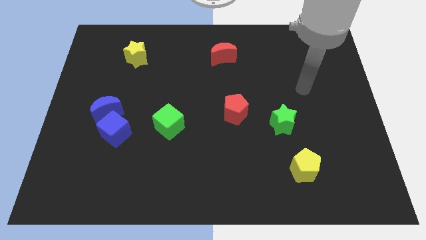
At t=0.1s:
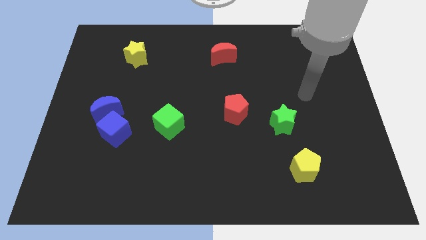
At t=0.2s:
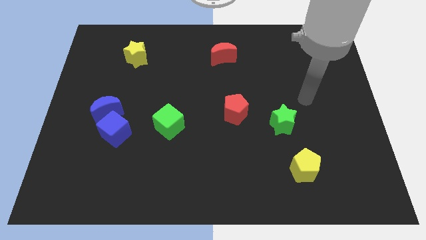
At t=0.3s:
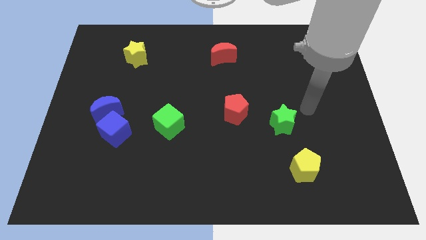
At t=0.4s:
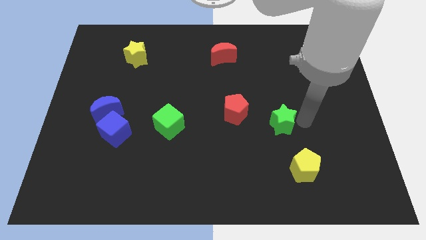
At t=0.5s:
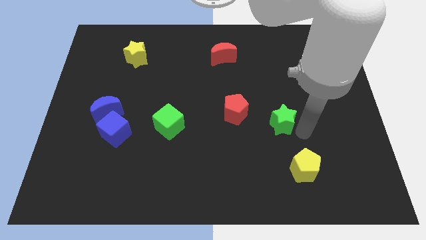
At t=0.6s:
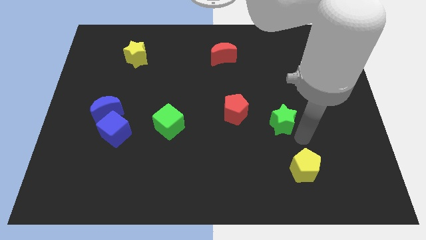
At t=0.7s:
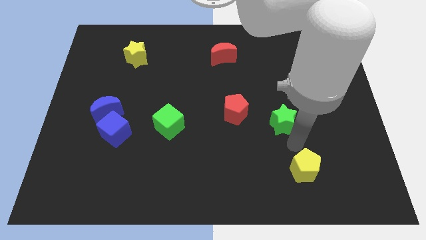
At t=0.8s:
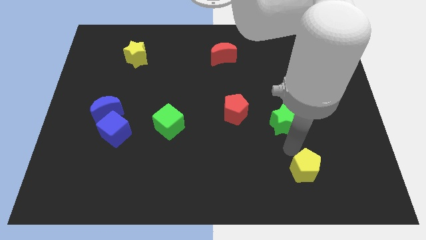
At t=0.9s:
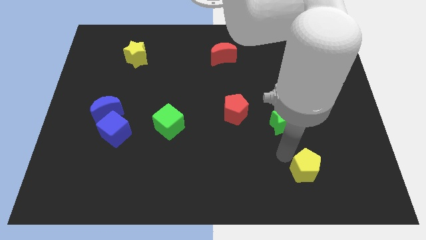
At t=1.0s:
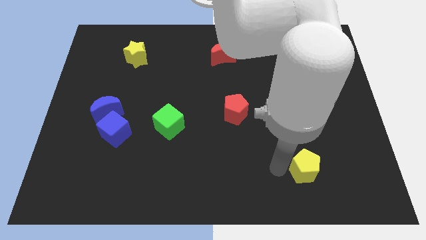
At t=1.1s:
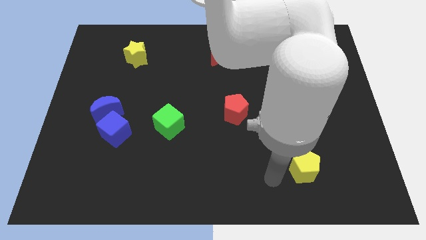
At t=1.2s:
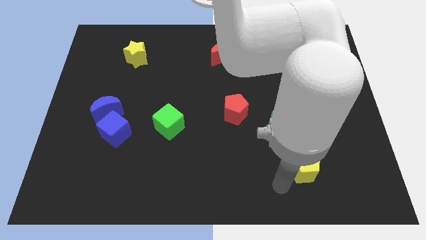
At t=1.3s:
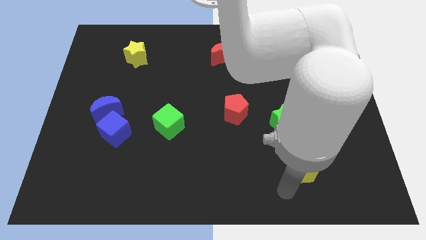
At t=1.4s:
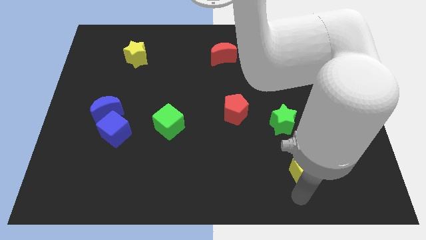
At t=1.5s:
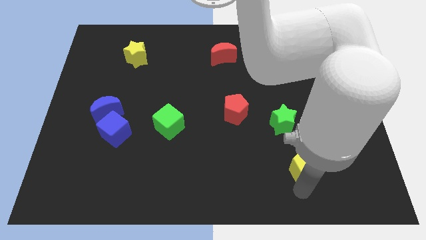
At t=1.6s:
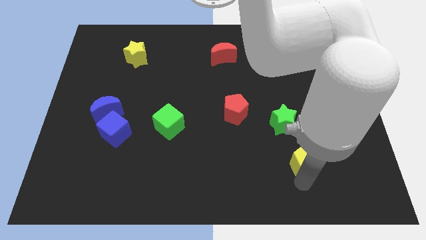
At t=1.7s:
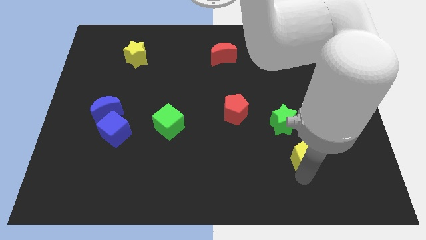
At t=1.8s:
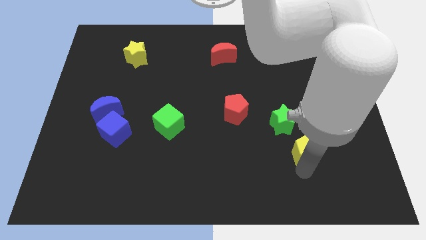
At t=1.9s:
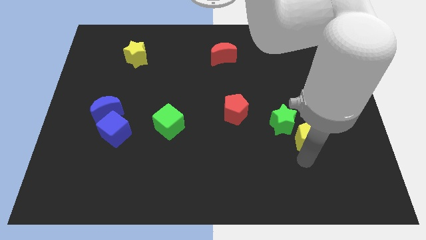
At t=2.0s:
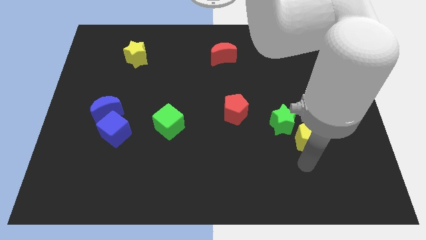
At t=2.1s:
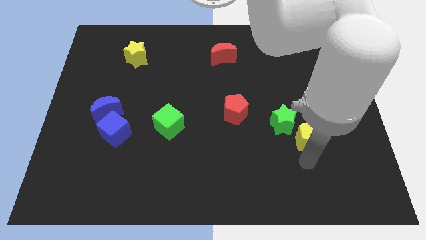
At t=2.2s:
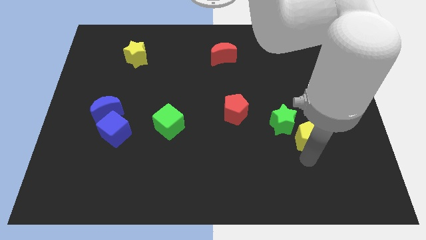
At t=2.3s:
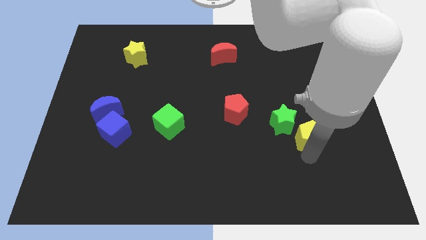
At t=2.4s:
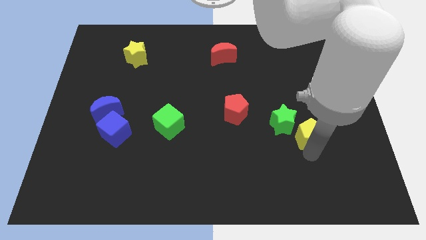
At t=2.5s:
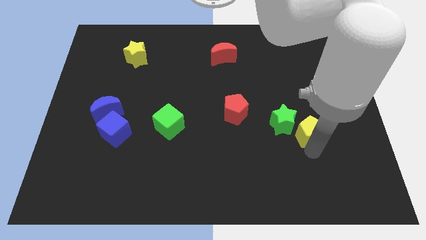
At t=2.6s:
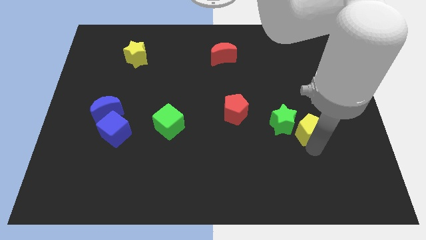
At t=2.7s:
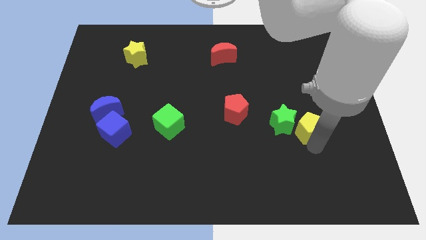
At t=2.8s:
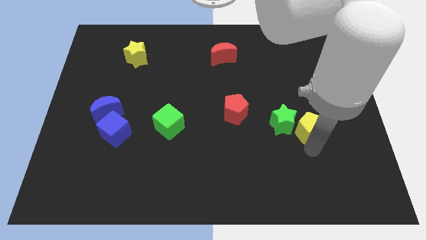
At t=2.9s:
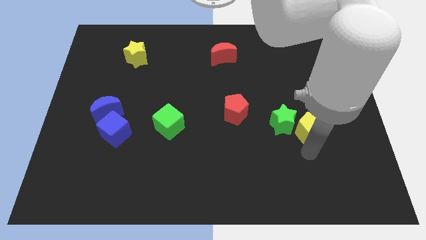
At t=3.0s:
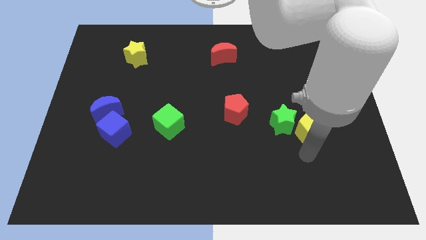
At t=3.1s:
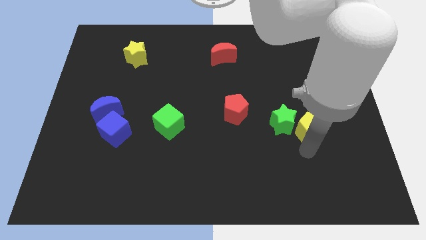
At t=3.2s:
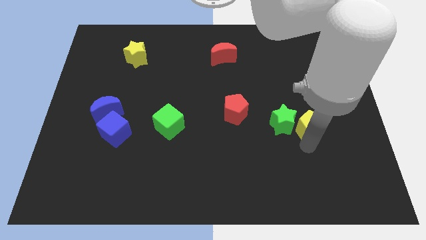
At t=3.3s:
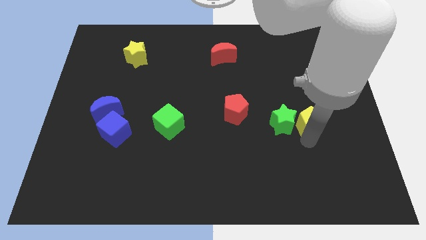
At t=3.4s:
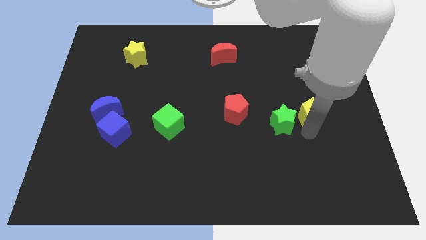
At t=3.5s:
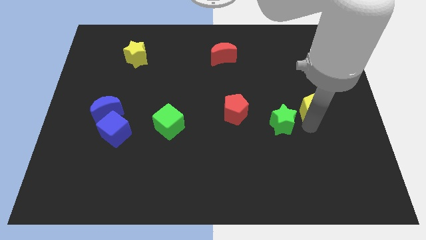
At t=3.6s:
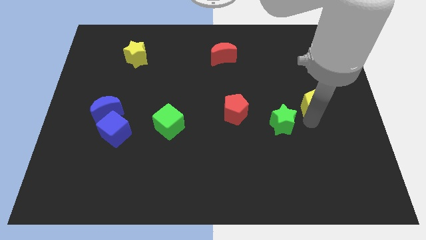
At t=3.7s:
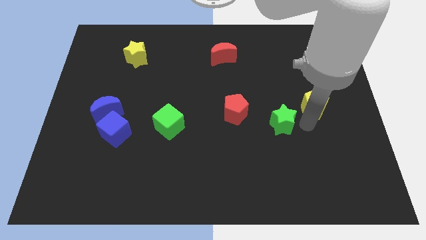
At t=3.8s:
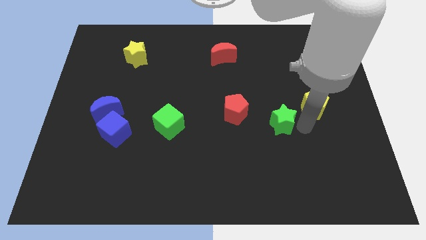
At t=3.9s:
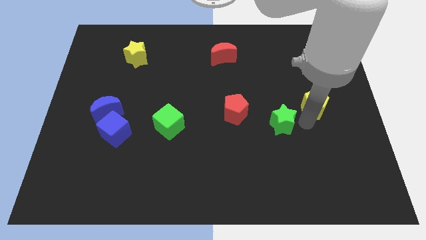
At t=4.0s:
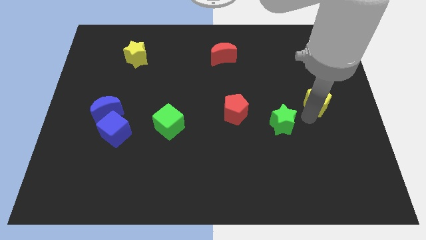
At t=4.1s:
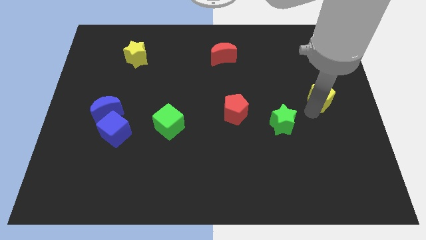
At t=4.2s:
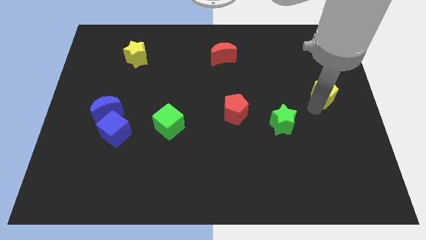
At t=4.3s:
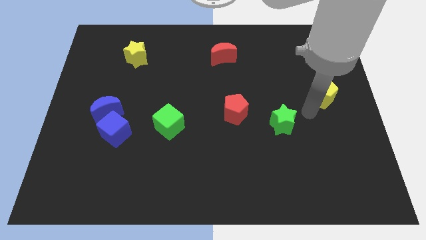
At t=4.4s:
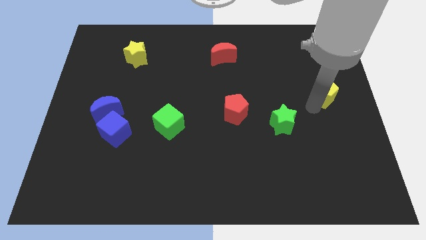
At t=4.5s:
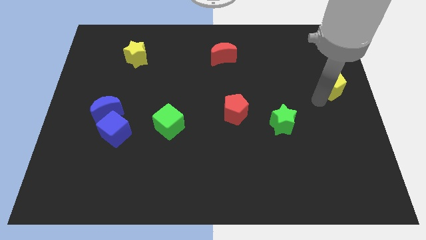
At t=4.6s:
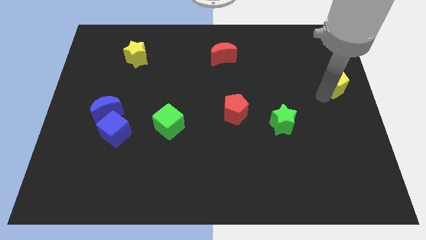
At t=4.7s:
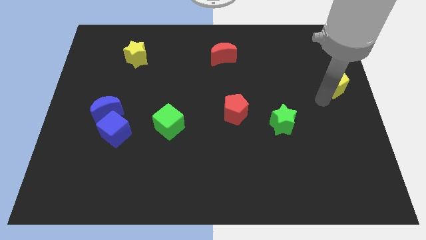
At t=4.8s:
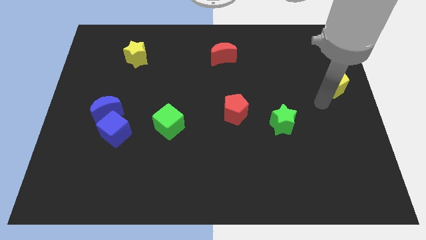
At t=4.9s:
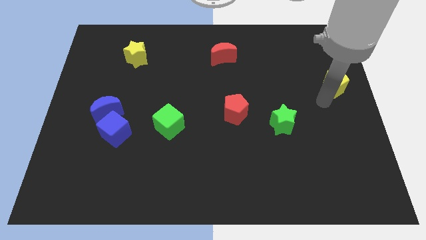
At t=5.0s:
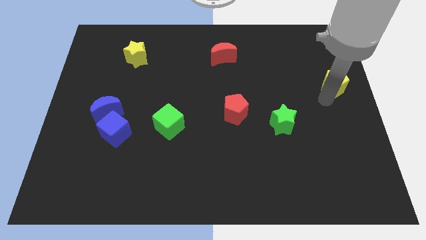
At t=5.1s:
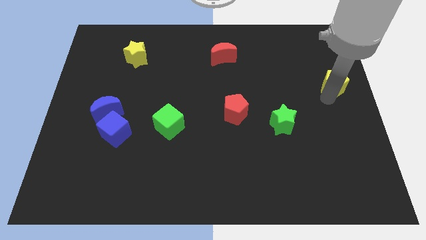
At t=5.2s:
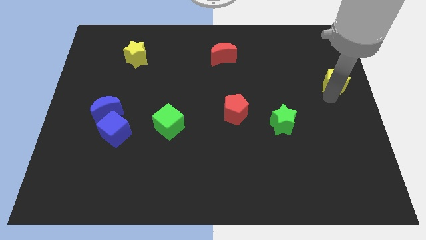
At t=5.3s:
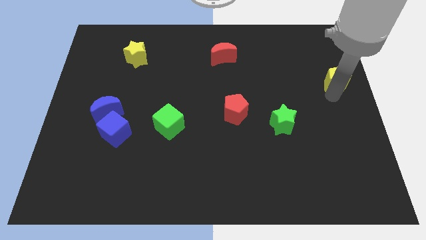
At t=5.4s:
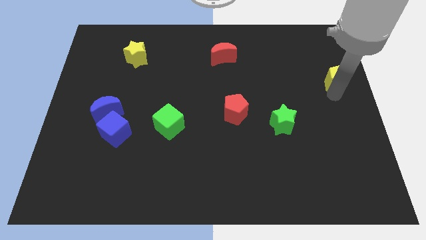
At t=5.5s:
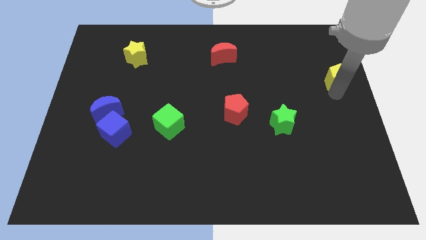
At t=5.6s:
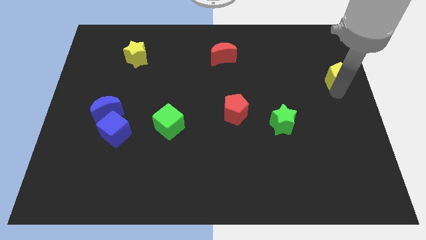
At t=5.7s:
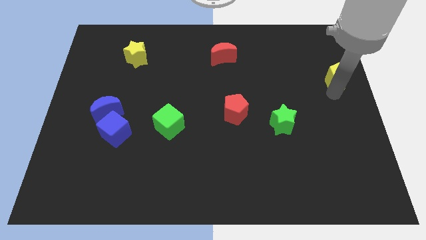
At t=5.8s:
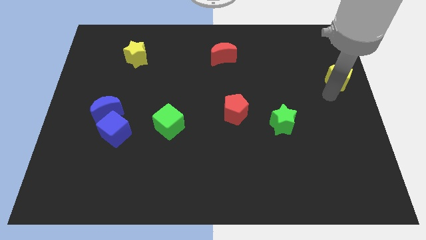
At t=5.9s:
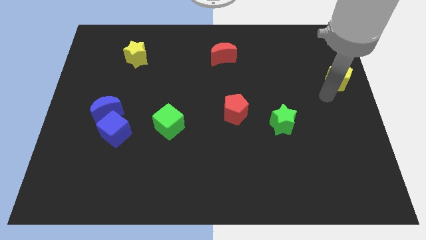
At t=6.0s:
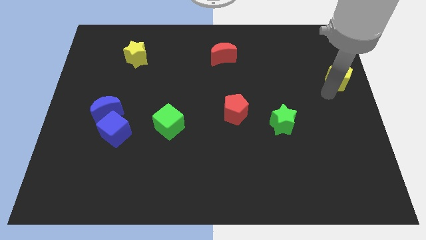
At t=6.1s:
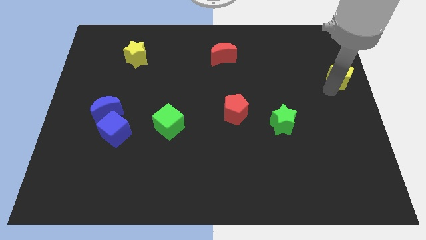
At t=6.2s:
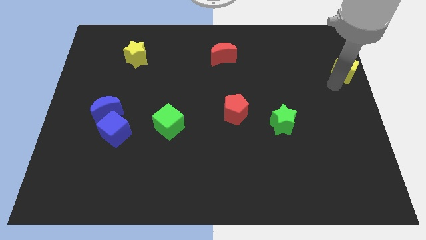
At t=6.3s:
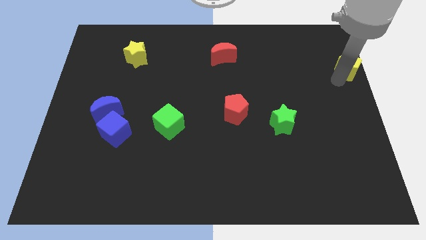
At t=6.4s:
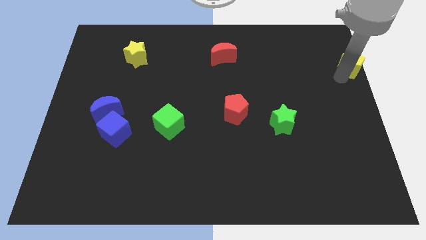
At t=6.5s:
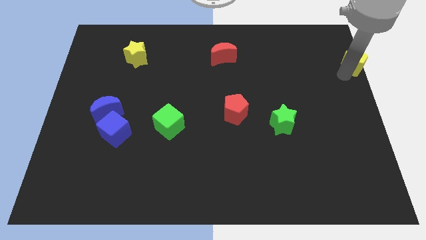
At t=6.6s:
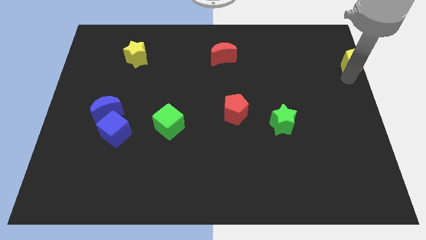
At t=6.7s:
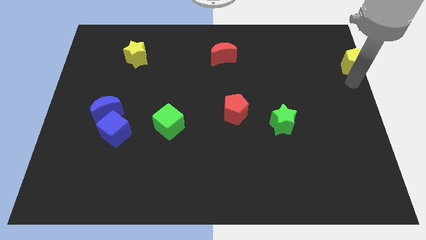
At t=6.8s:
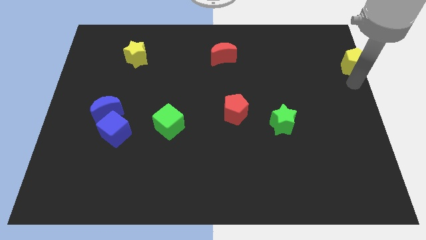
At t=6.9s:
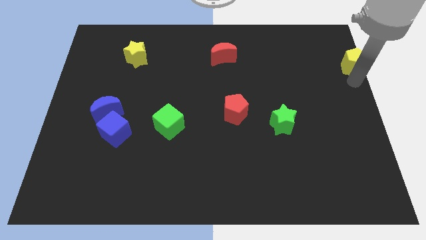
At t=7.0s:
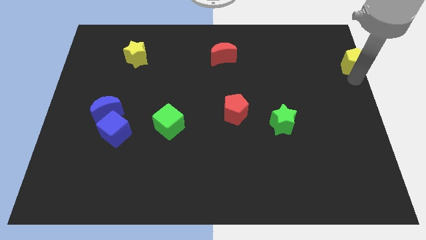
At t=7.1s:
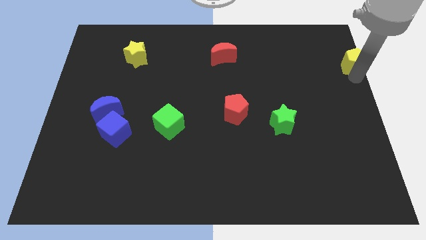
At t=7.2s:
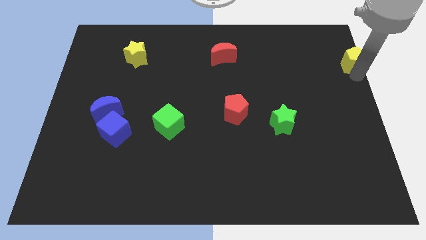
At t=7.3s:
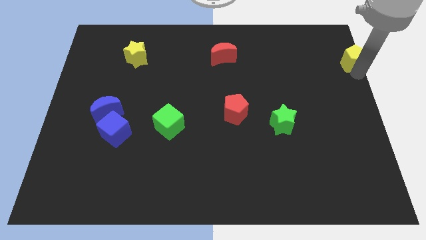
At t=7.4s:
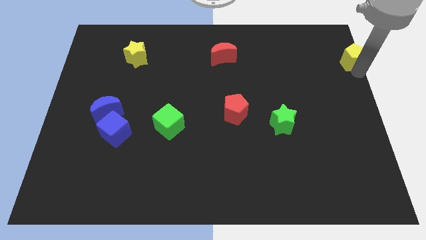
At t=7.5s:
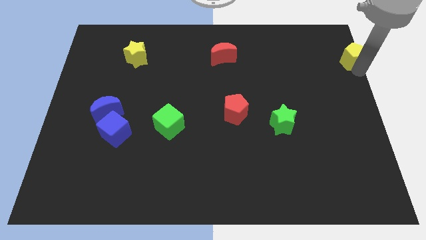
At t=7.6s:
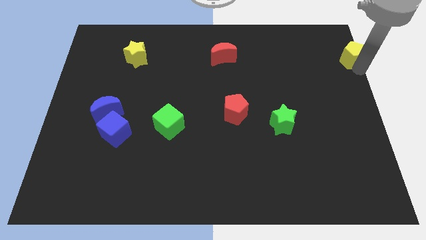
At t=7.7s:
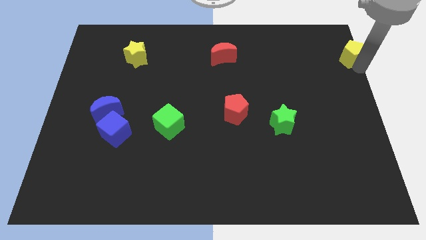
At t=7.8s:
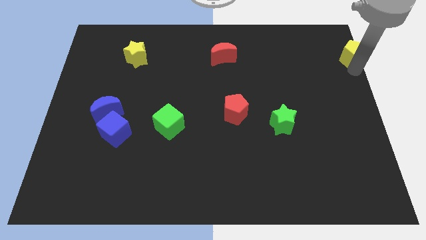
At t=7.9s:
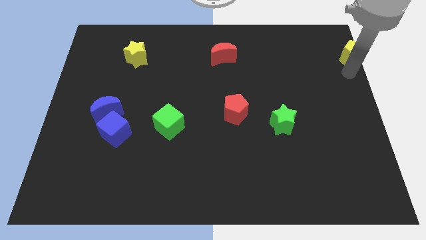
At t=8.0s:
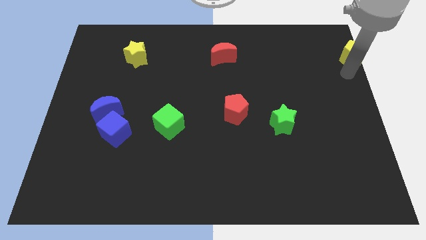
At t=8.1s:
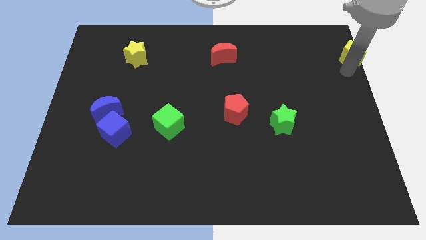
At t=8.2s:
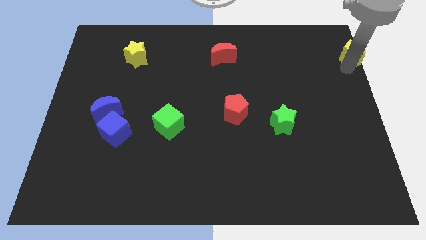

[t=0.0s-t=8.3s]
put the yellow pentagon to the top right
